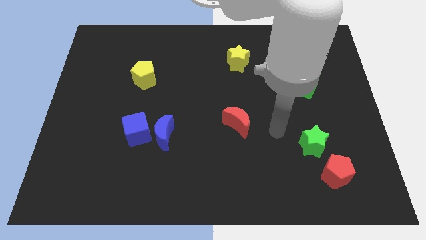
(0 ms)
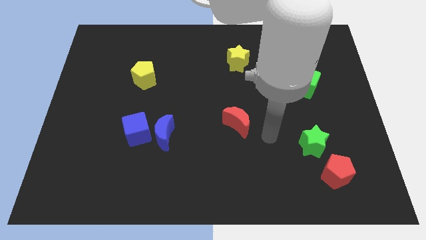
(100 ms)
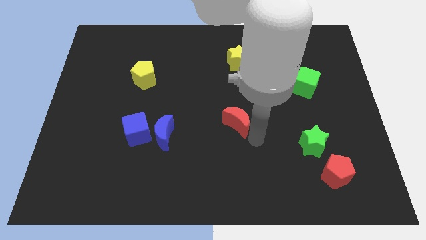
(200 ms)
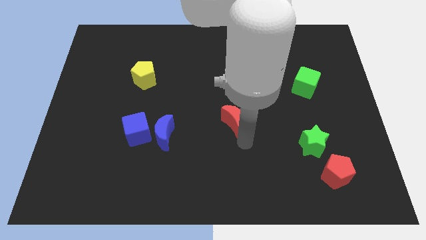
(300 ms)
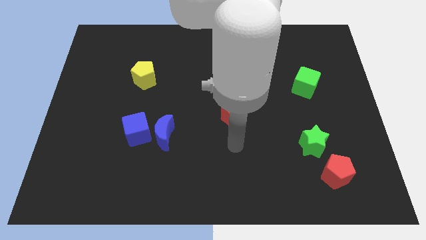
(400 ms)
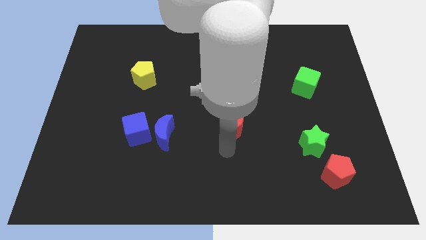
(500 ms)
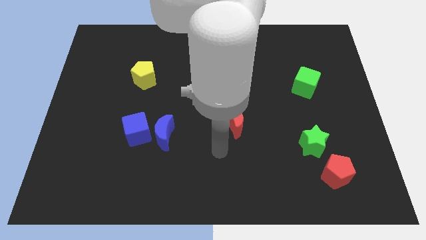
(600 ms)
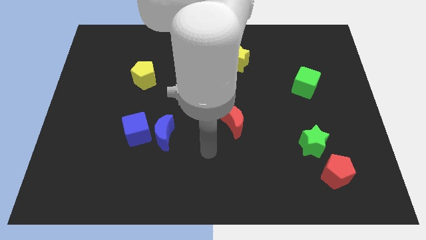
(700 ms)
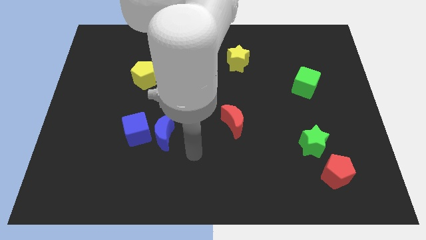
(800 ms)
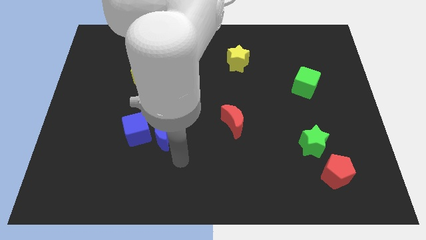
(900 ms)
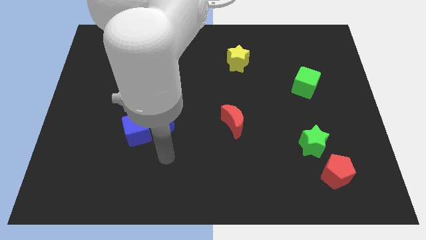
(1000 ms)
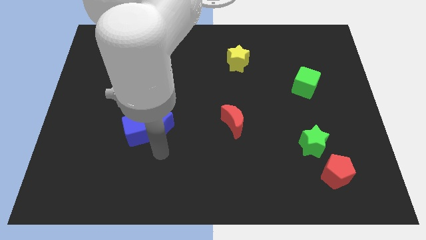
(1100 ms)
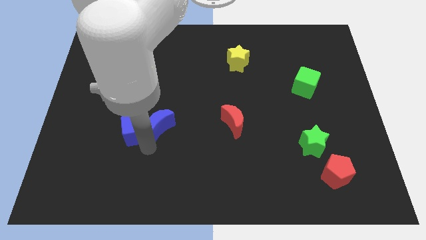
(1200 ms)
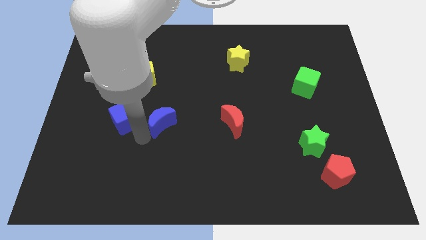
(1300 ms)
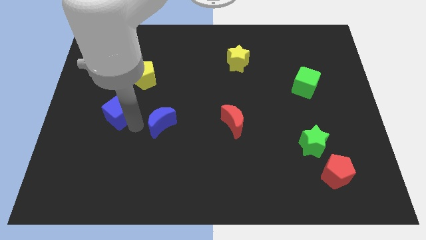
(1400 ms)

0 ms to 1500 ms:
separate the blue moon from the blue cube

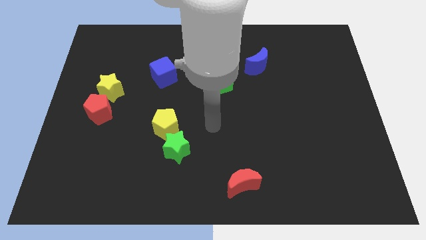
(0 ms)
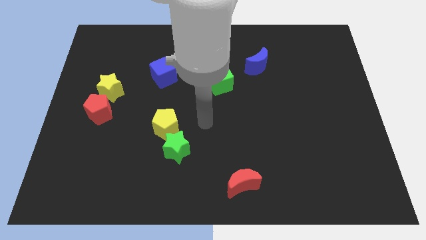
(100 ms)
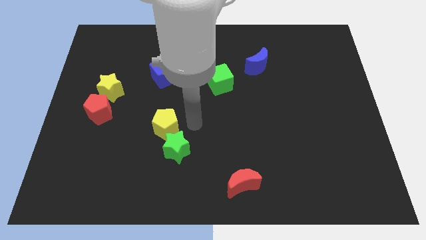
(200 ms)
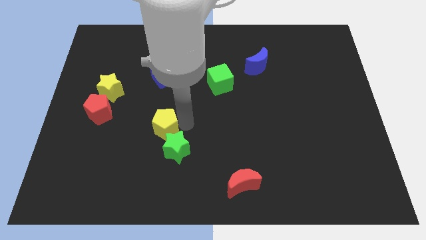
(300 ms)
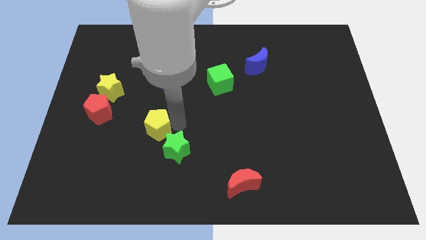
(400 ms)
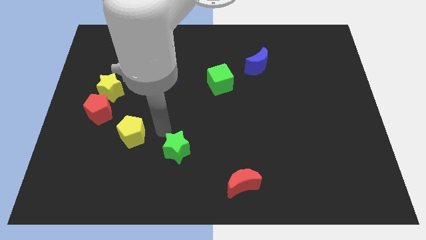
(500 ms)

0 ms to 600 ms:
move the green star away from the yellow pentagon

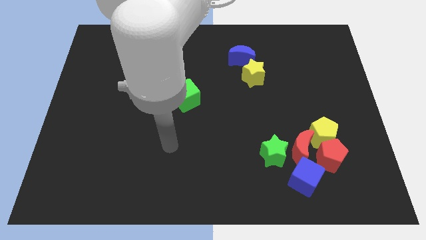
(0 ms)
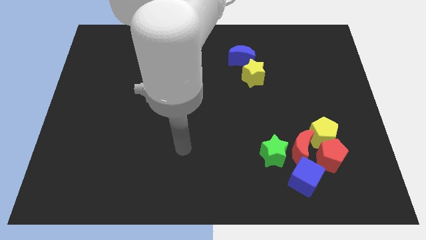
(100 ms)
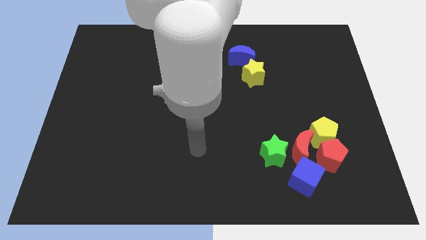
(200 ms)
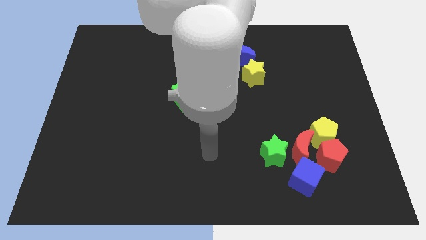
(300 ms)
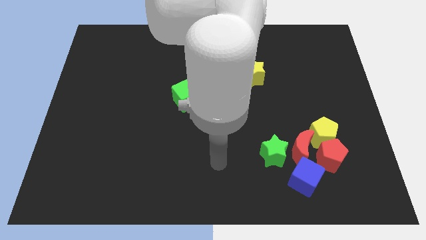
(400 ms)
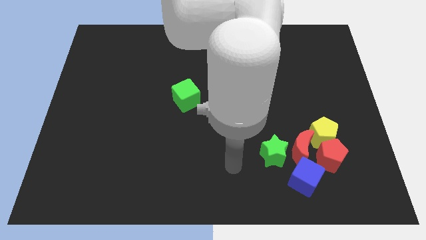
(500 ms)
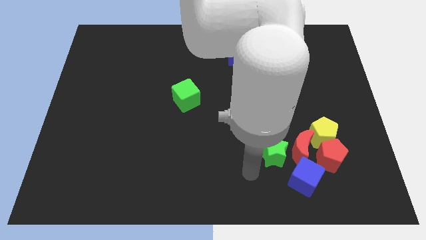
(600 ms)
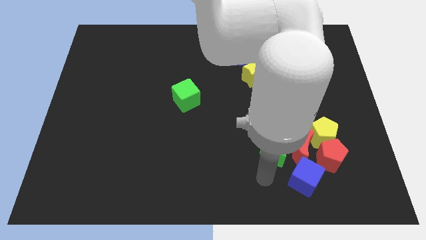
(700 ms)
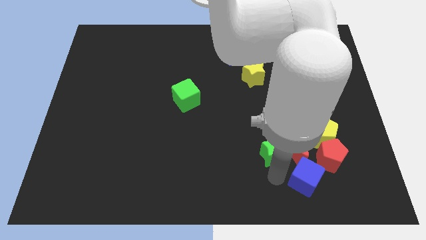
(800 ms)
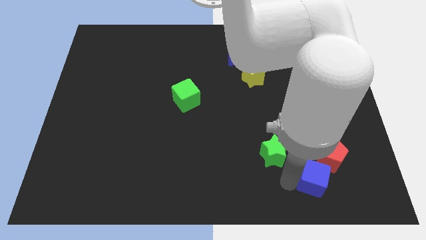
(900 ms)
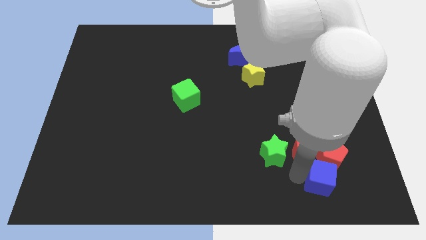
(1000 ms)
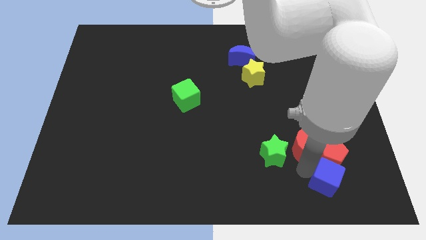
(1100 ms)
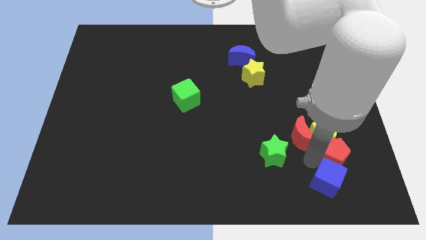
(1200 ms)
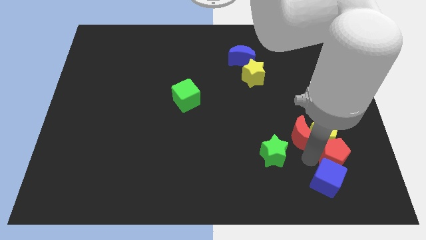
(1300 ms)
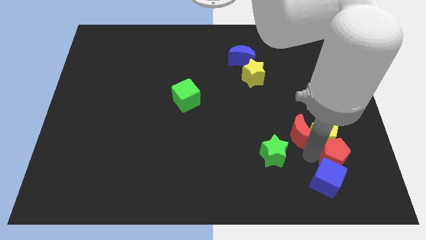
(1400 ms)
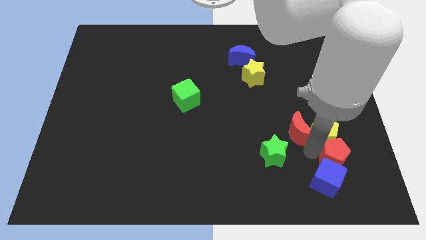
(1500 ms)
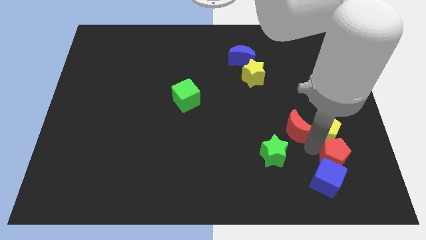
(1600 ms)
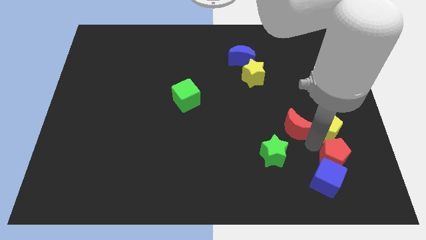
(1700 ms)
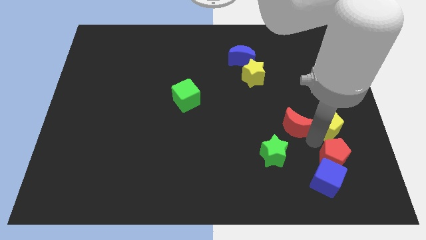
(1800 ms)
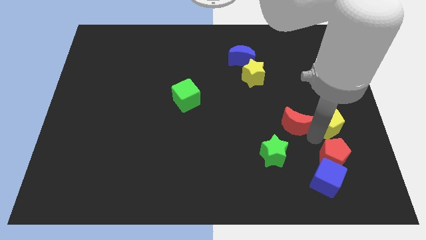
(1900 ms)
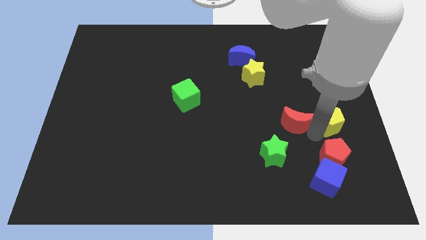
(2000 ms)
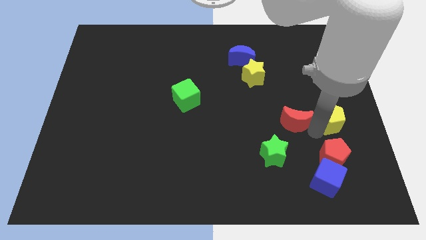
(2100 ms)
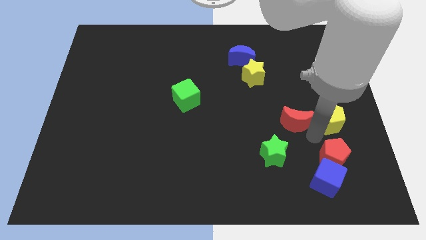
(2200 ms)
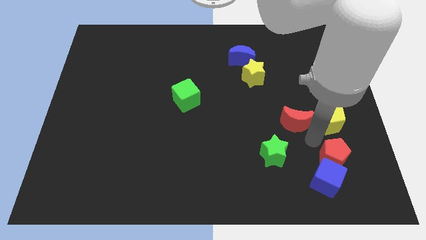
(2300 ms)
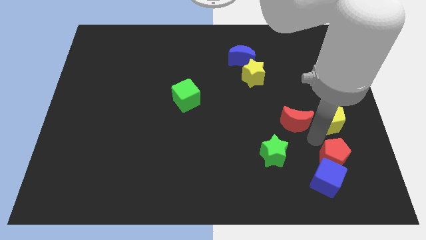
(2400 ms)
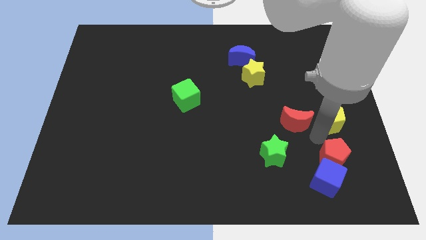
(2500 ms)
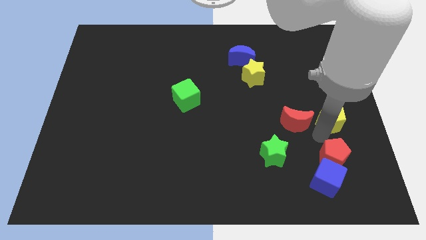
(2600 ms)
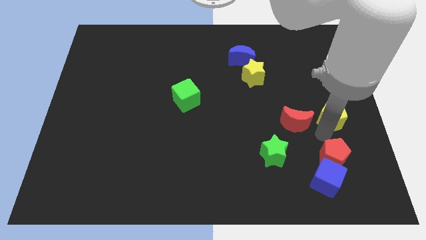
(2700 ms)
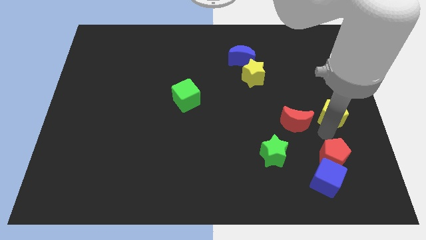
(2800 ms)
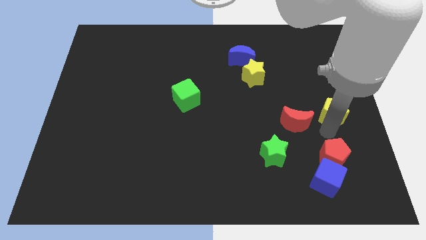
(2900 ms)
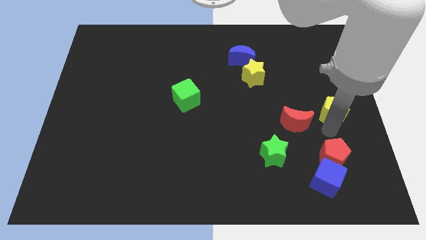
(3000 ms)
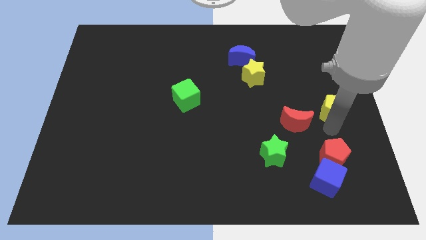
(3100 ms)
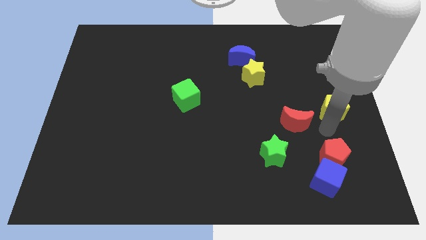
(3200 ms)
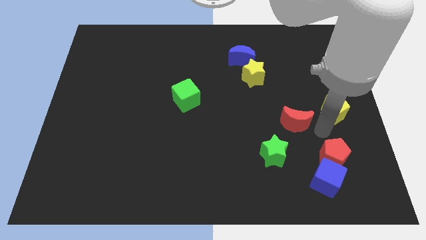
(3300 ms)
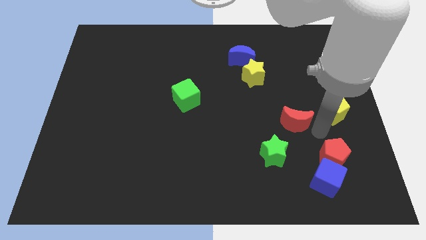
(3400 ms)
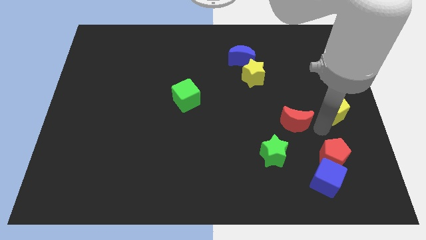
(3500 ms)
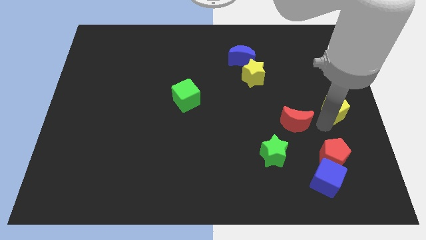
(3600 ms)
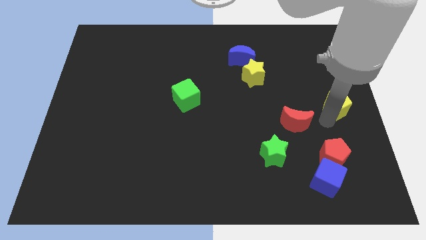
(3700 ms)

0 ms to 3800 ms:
separate the yellow pentagon from the red pentagon and red moon

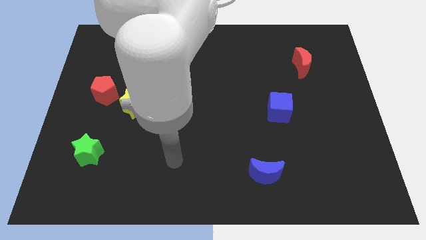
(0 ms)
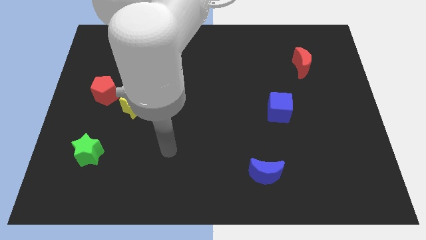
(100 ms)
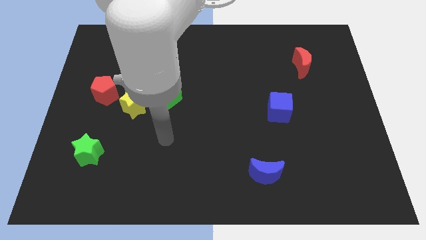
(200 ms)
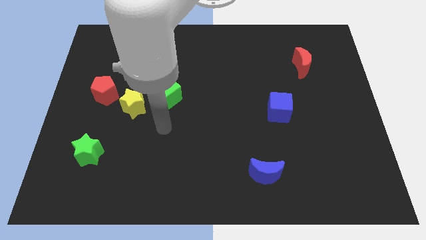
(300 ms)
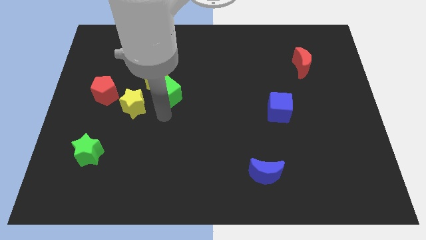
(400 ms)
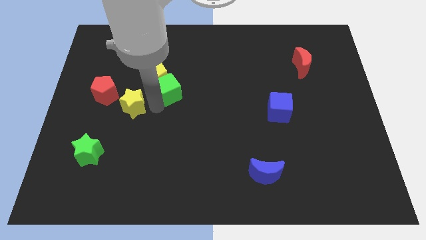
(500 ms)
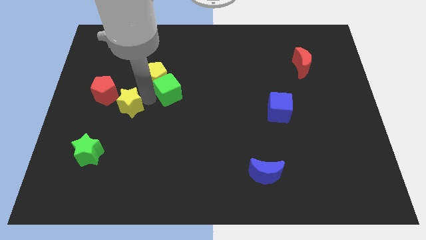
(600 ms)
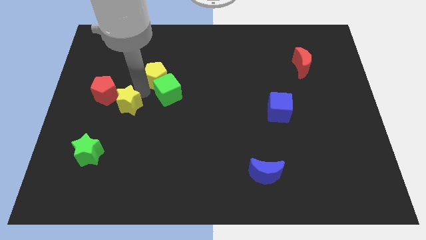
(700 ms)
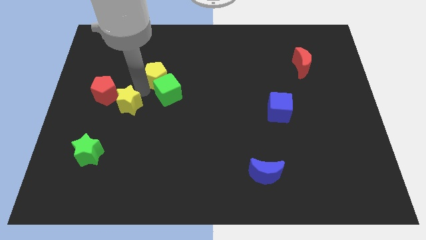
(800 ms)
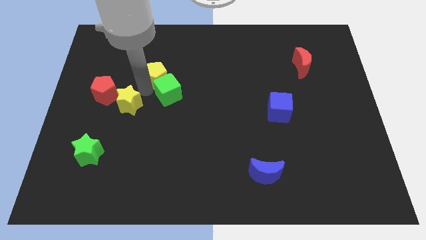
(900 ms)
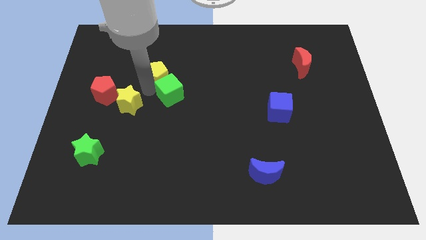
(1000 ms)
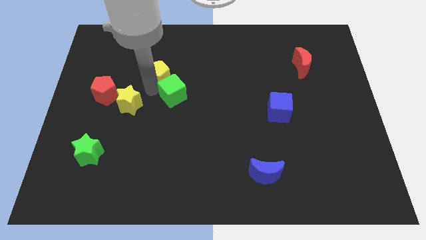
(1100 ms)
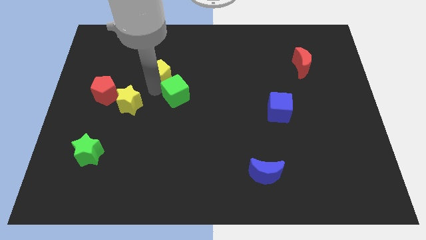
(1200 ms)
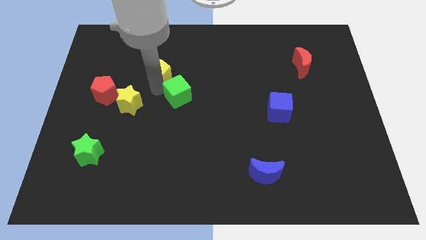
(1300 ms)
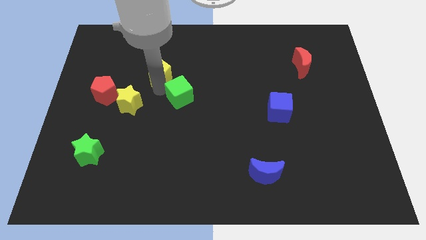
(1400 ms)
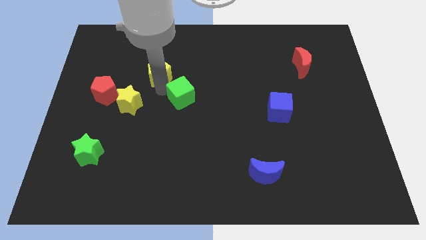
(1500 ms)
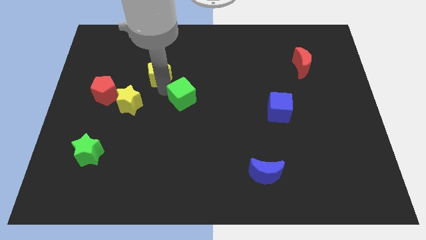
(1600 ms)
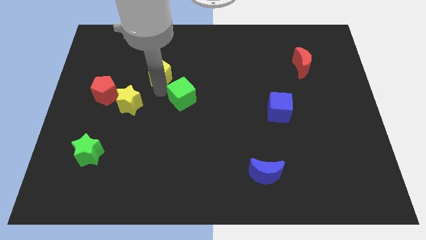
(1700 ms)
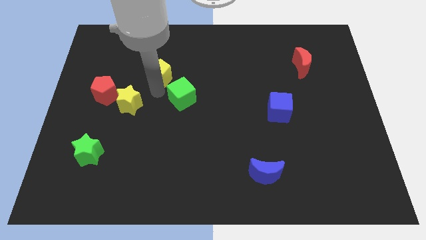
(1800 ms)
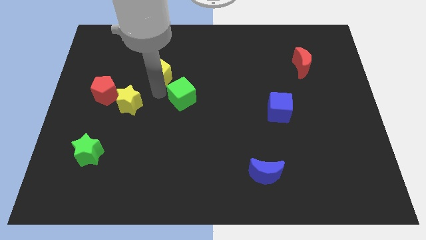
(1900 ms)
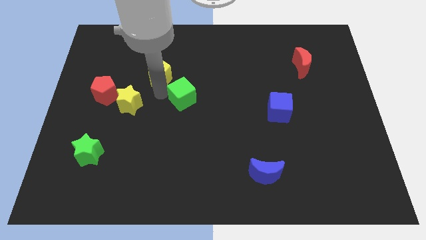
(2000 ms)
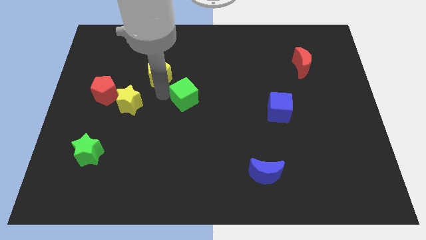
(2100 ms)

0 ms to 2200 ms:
pull the green cube apart from the yellow pentagon and yellow star

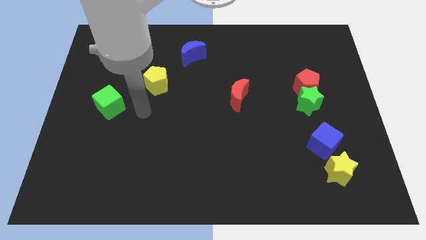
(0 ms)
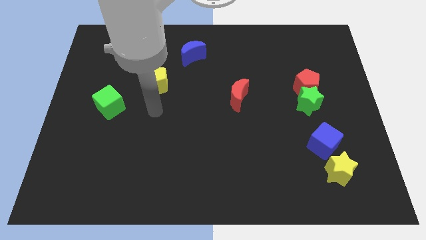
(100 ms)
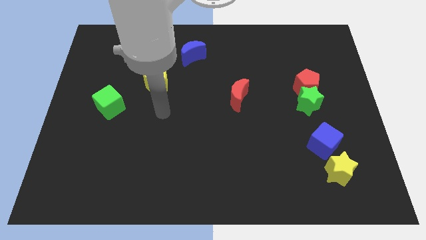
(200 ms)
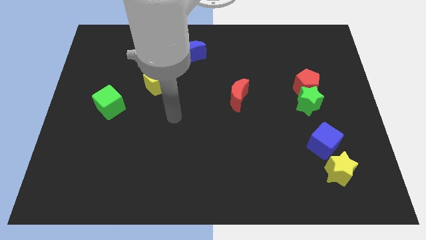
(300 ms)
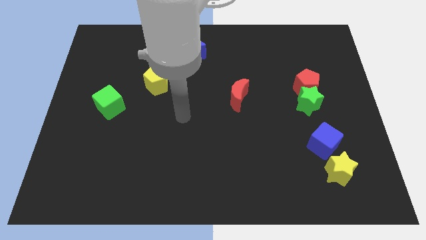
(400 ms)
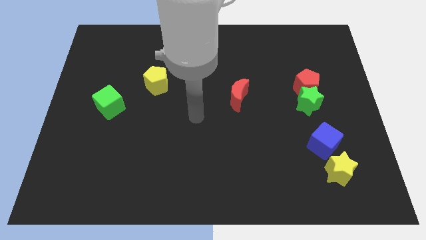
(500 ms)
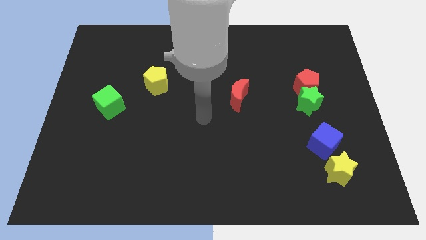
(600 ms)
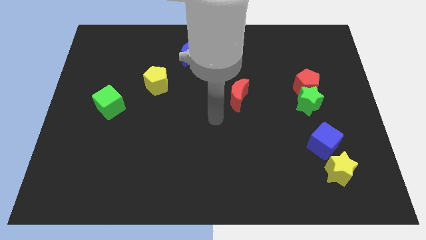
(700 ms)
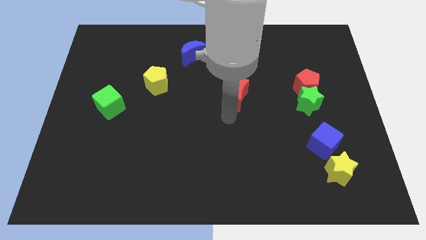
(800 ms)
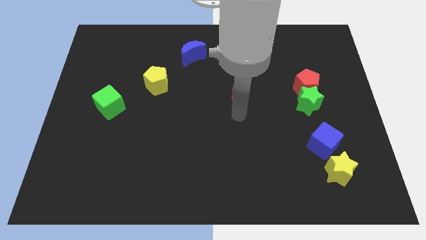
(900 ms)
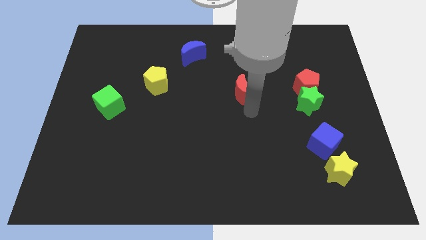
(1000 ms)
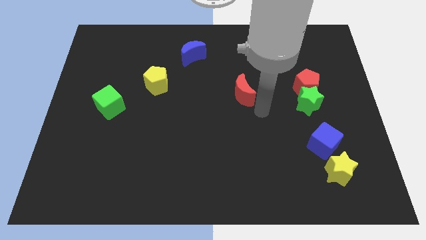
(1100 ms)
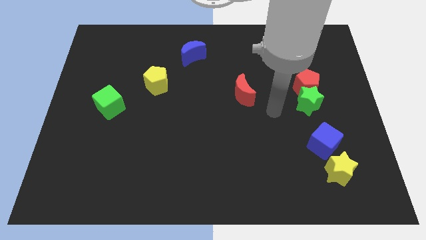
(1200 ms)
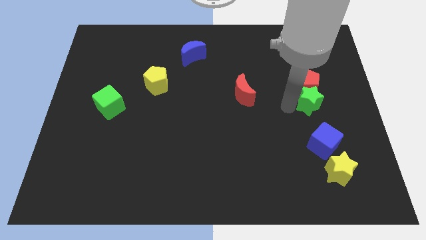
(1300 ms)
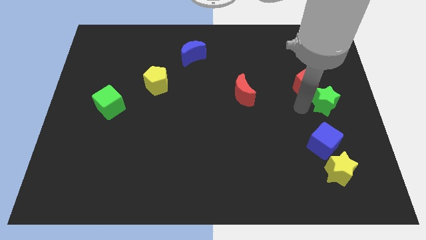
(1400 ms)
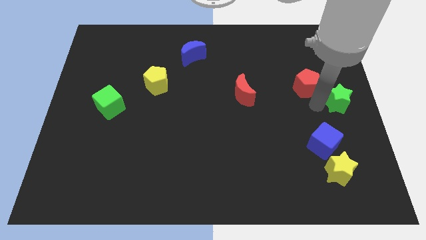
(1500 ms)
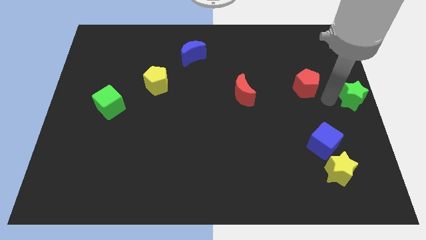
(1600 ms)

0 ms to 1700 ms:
move the red pentagon away from the green star
